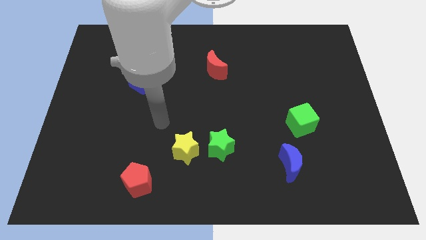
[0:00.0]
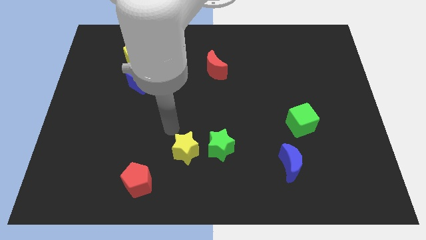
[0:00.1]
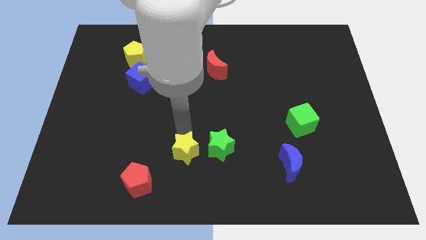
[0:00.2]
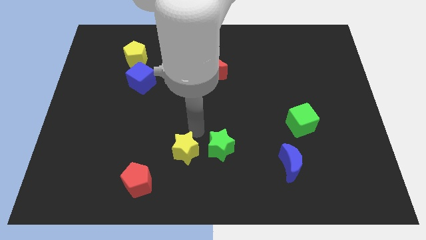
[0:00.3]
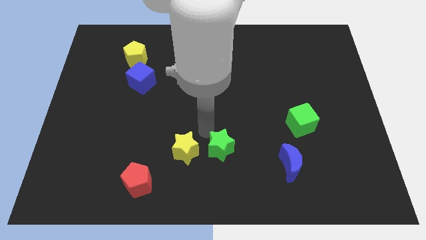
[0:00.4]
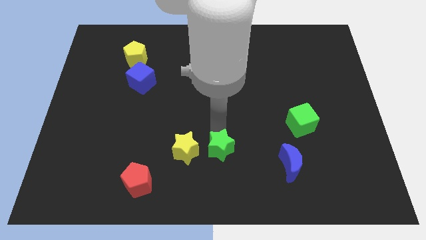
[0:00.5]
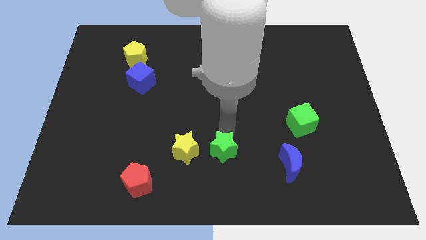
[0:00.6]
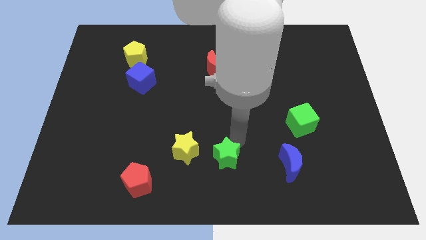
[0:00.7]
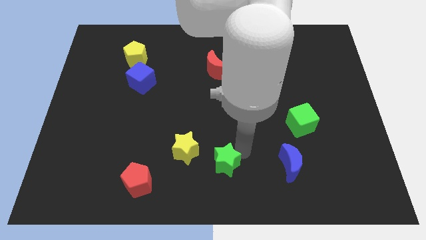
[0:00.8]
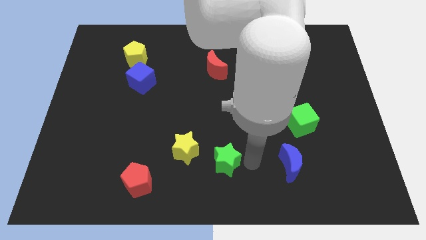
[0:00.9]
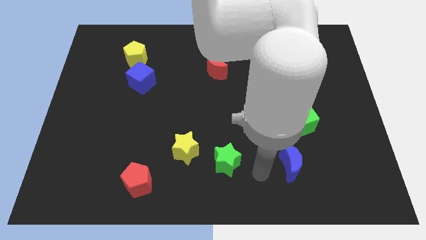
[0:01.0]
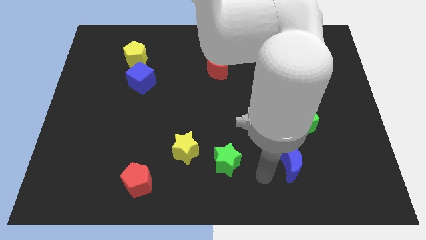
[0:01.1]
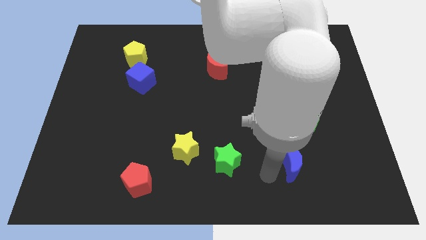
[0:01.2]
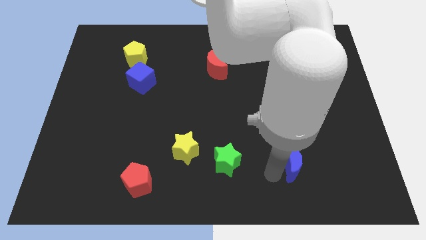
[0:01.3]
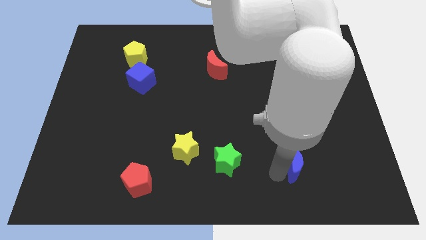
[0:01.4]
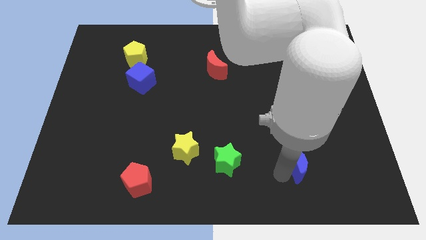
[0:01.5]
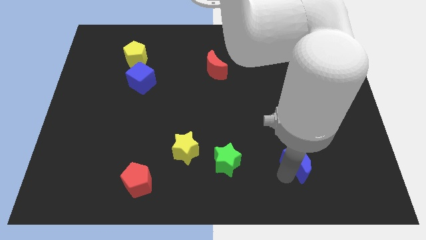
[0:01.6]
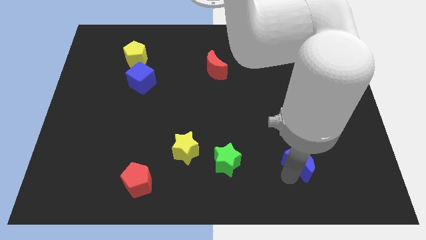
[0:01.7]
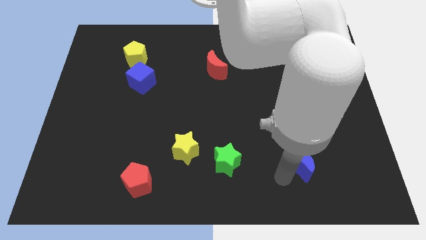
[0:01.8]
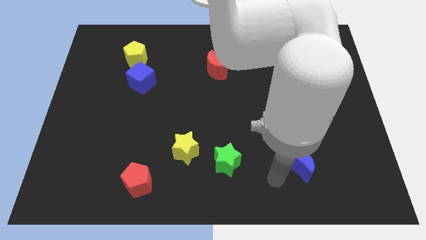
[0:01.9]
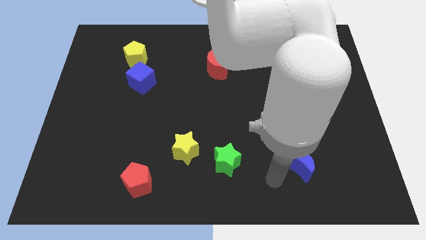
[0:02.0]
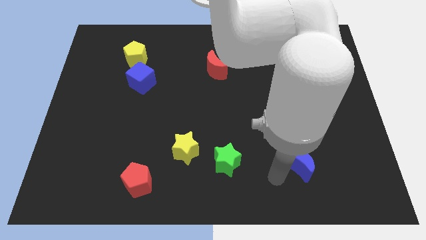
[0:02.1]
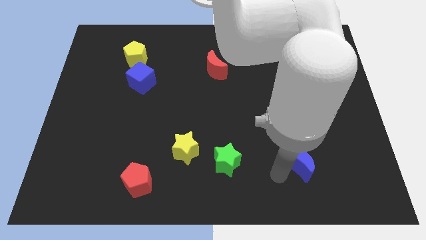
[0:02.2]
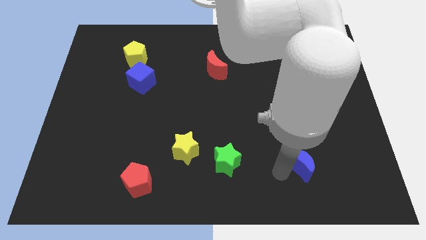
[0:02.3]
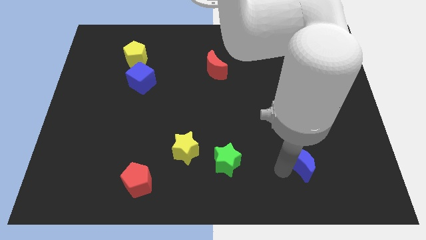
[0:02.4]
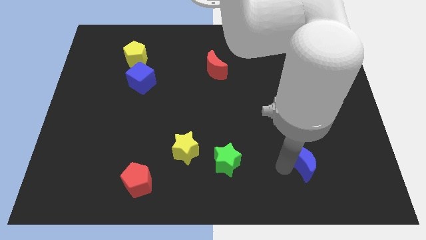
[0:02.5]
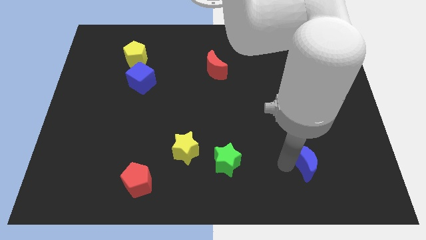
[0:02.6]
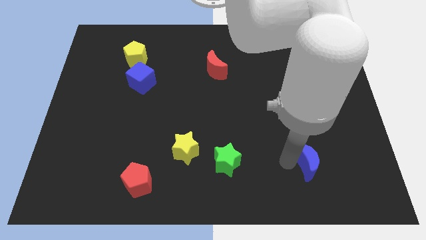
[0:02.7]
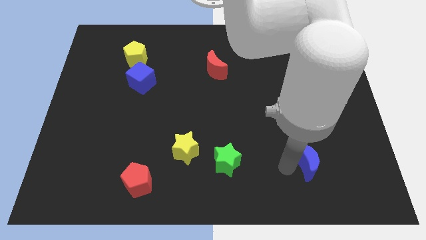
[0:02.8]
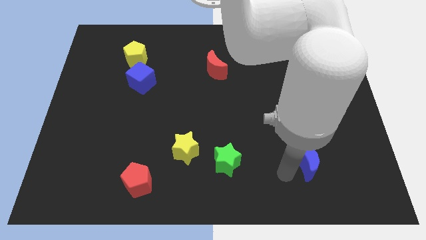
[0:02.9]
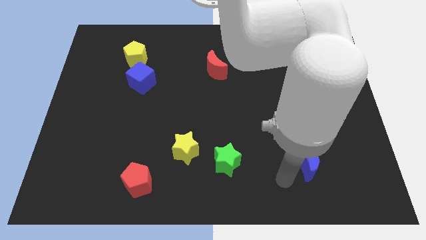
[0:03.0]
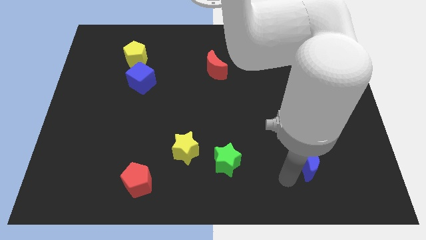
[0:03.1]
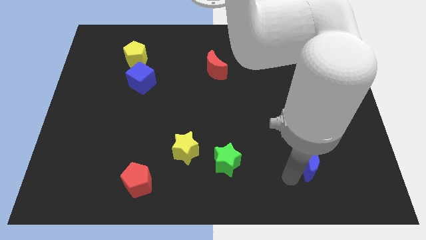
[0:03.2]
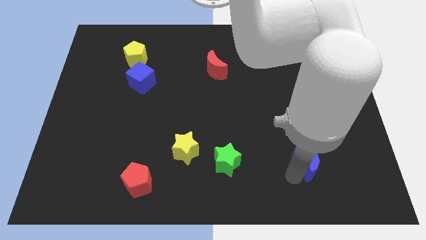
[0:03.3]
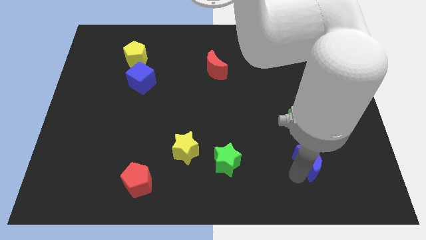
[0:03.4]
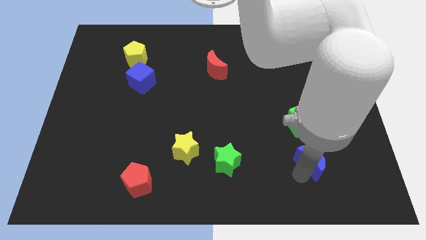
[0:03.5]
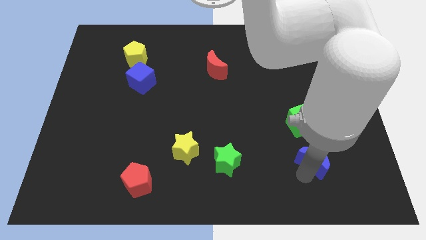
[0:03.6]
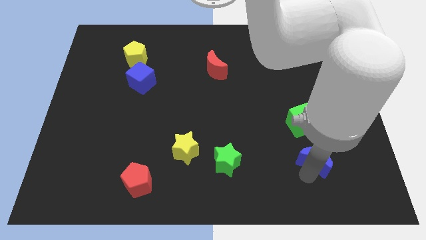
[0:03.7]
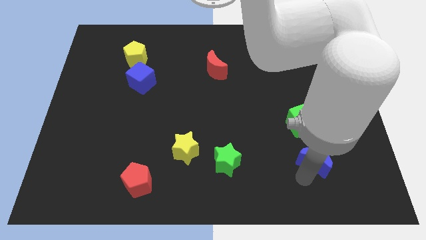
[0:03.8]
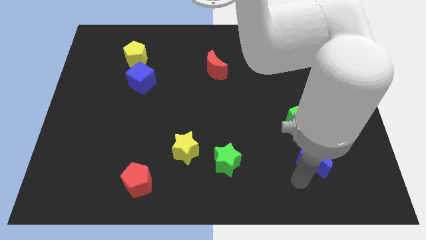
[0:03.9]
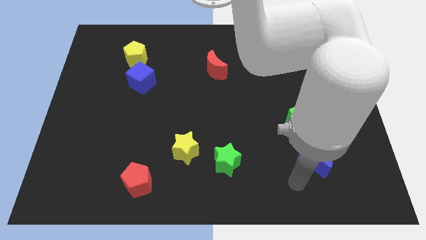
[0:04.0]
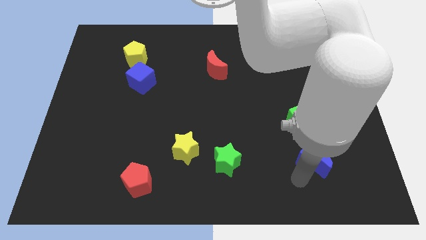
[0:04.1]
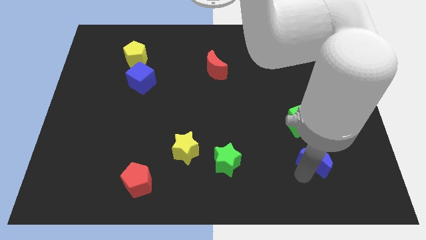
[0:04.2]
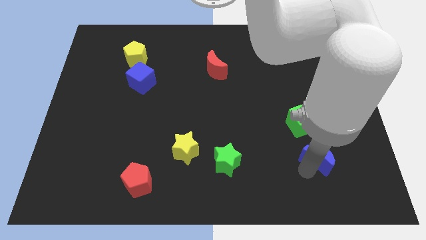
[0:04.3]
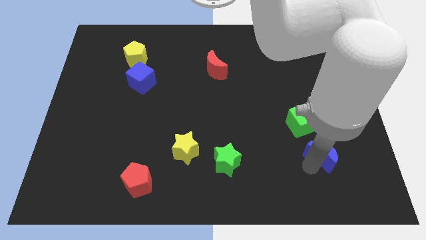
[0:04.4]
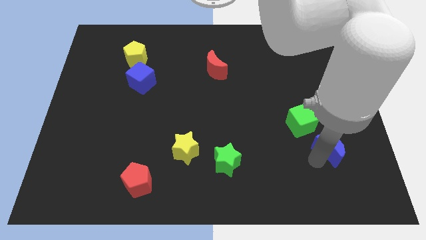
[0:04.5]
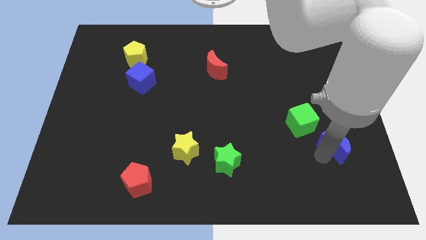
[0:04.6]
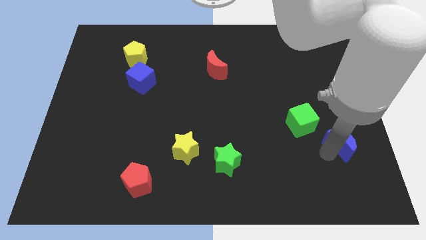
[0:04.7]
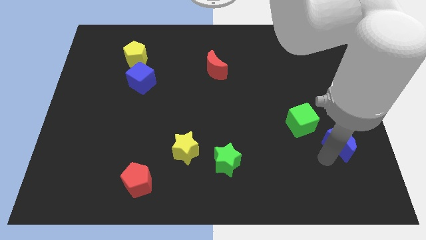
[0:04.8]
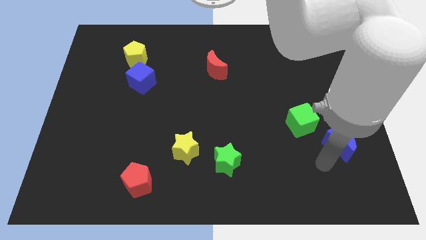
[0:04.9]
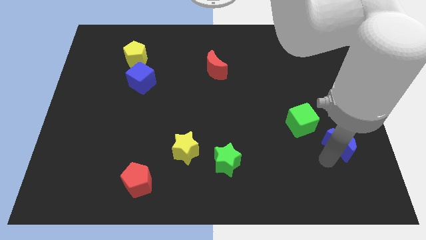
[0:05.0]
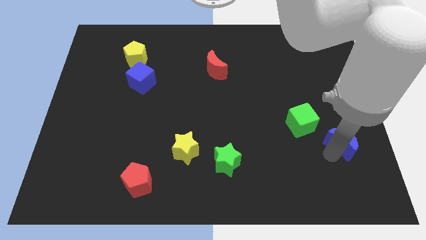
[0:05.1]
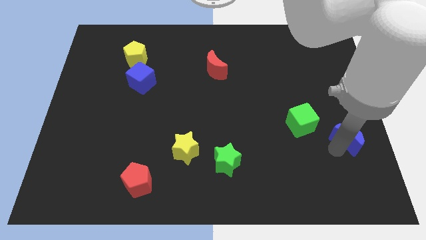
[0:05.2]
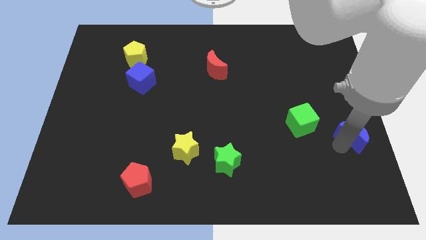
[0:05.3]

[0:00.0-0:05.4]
slide the blue moon to the center right

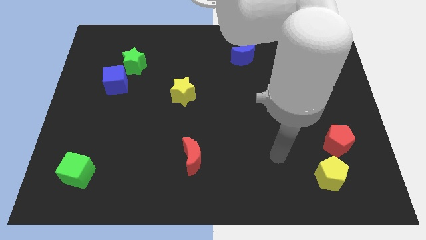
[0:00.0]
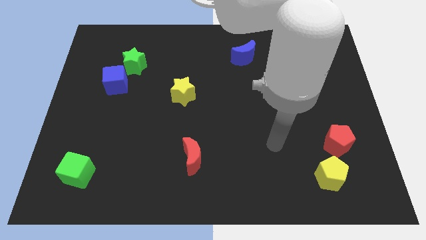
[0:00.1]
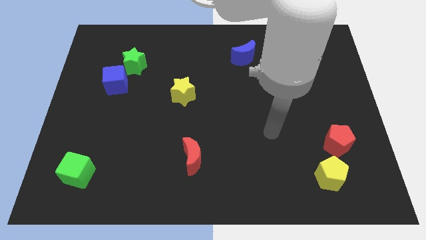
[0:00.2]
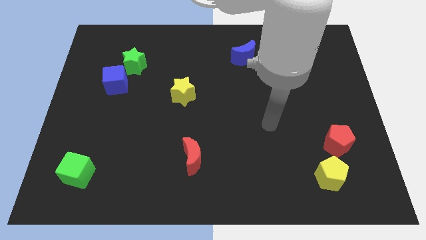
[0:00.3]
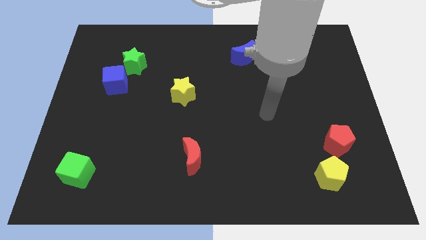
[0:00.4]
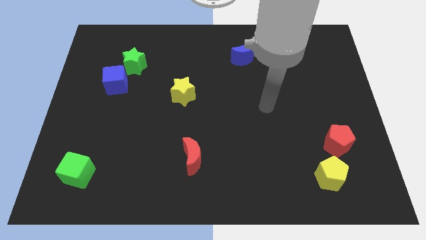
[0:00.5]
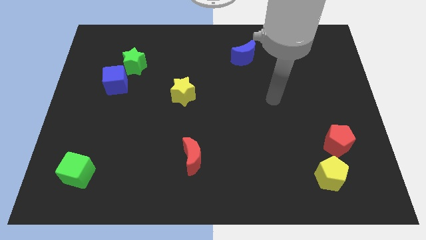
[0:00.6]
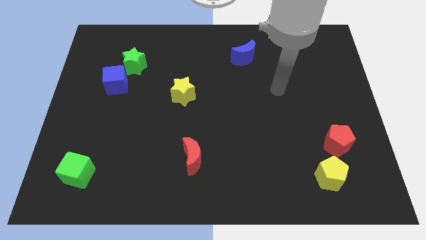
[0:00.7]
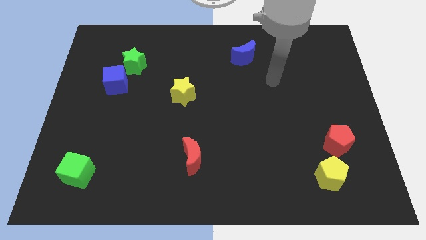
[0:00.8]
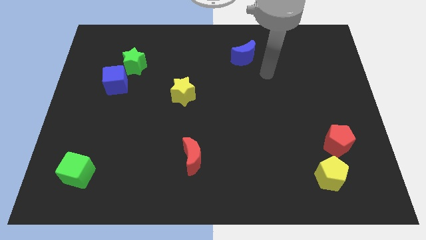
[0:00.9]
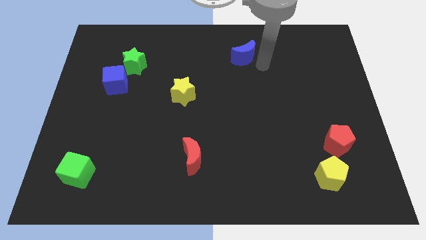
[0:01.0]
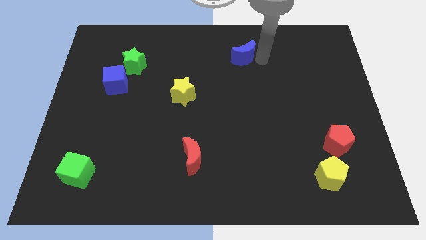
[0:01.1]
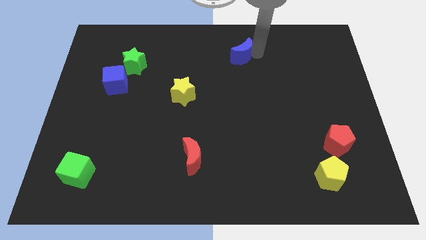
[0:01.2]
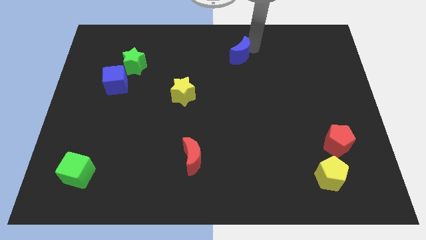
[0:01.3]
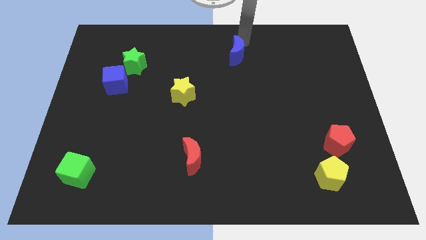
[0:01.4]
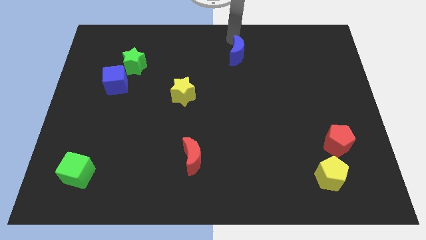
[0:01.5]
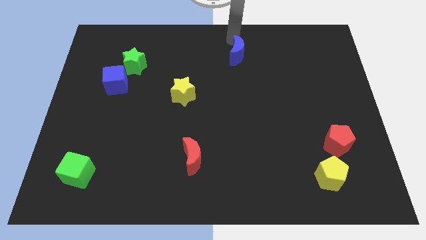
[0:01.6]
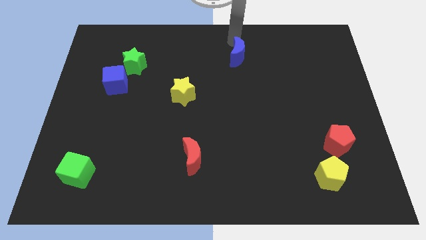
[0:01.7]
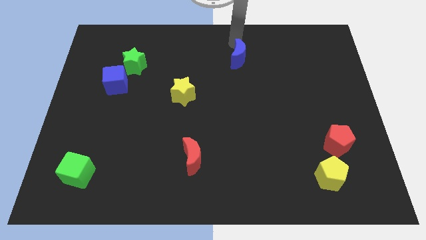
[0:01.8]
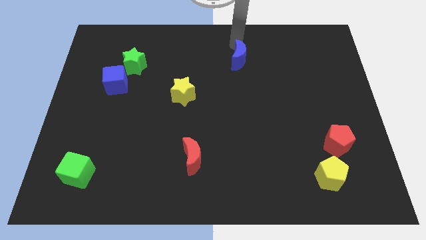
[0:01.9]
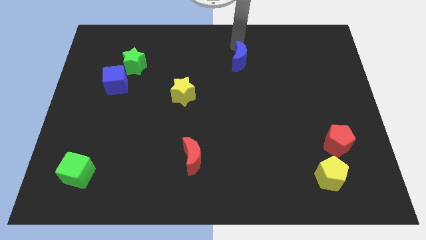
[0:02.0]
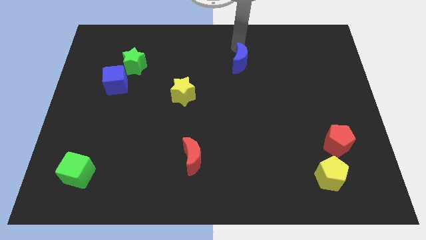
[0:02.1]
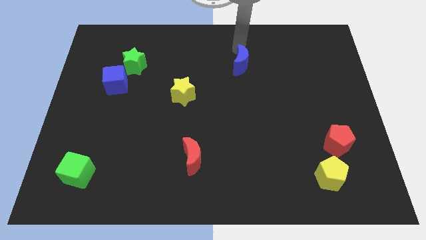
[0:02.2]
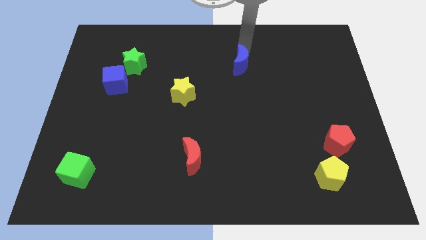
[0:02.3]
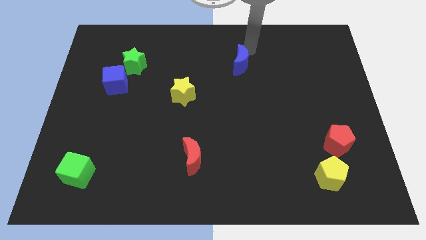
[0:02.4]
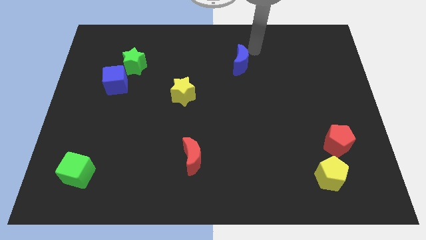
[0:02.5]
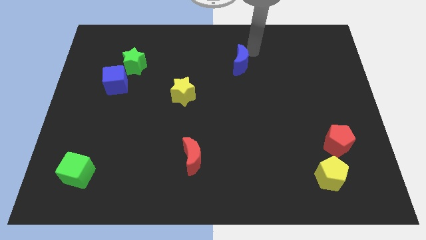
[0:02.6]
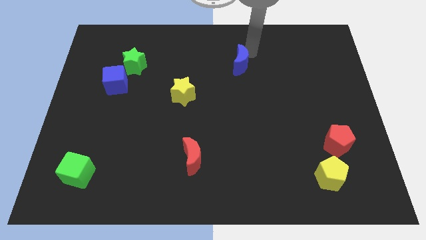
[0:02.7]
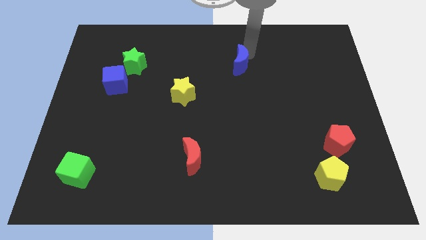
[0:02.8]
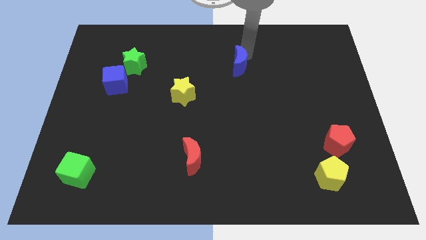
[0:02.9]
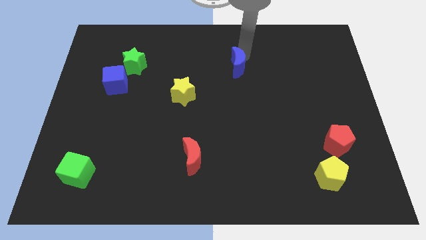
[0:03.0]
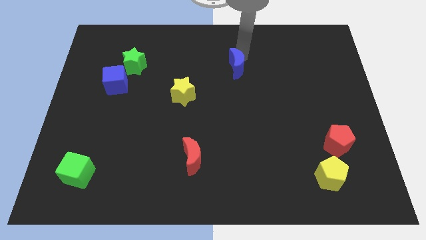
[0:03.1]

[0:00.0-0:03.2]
move the blue moon to the middle of the board
